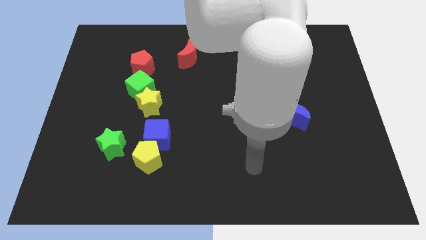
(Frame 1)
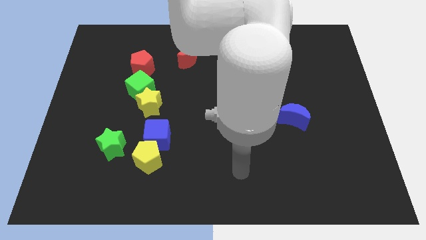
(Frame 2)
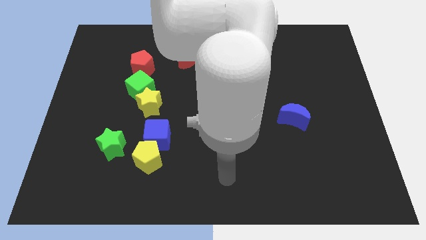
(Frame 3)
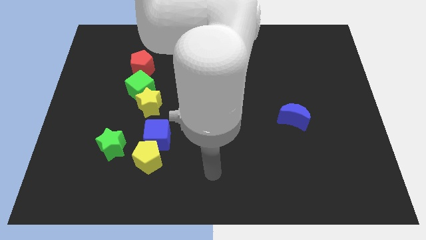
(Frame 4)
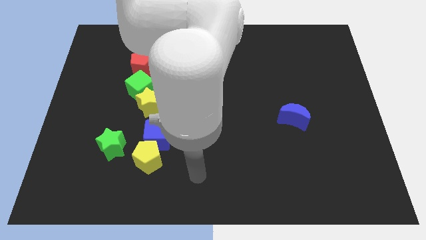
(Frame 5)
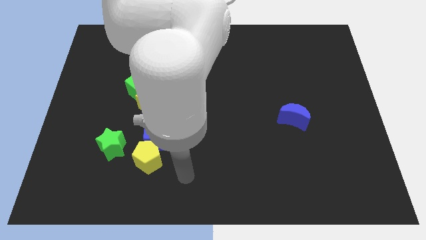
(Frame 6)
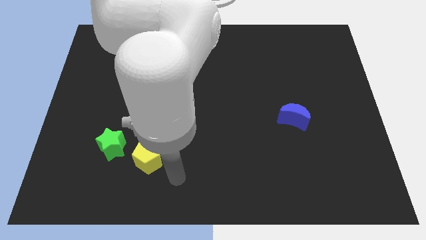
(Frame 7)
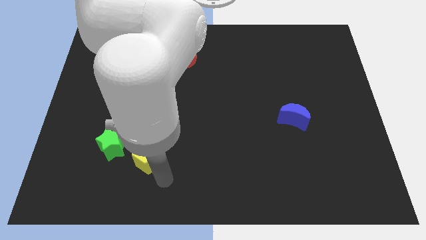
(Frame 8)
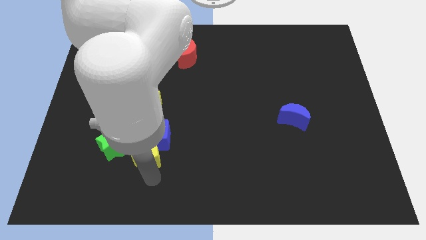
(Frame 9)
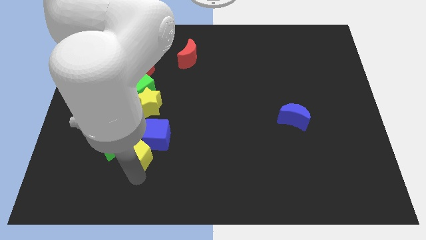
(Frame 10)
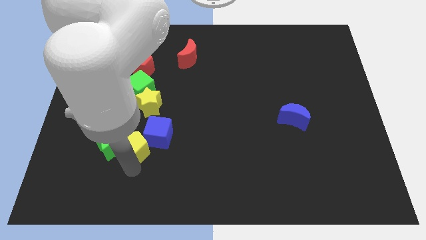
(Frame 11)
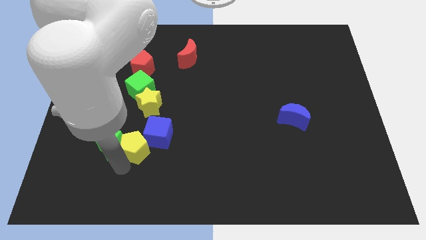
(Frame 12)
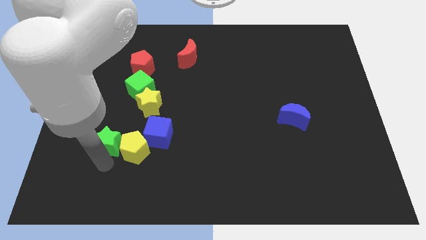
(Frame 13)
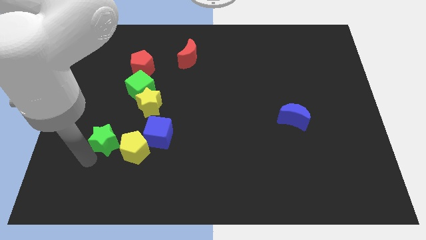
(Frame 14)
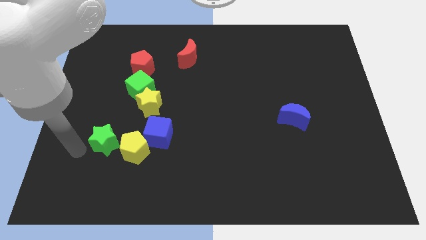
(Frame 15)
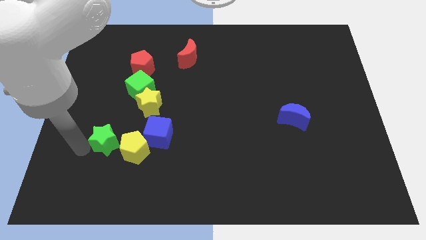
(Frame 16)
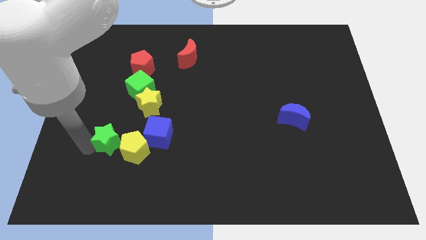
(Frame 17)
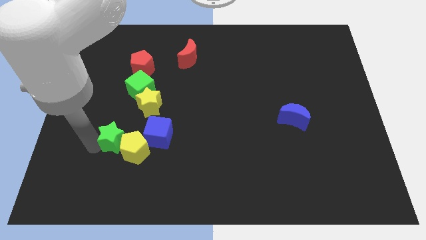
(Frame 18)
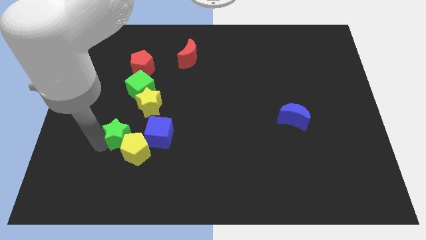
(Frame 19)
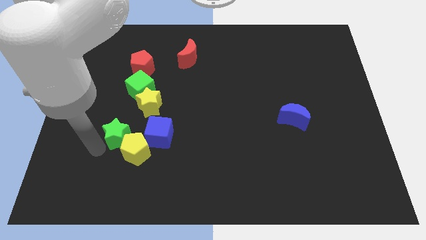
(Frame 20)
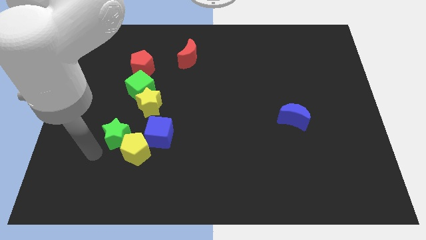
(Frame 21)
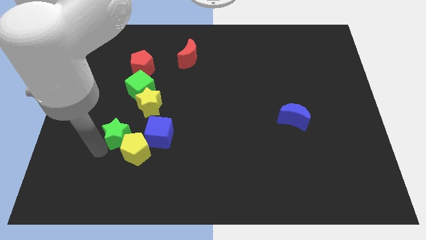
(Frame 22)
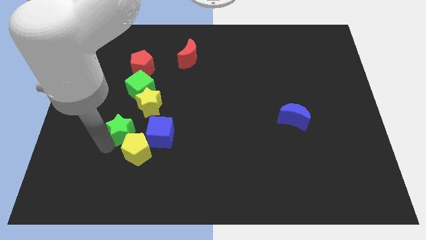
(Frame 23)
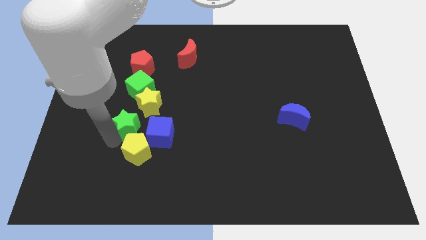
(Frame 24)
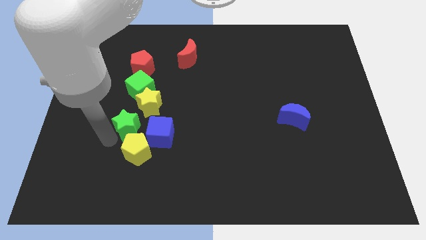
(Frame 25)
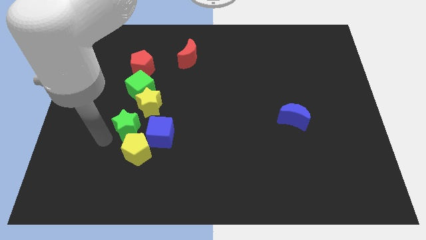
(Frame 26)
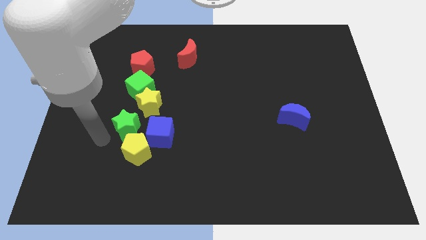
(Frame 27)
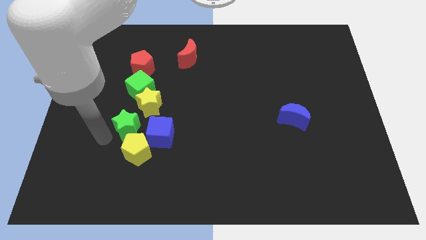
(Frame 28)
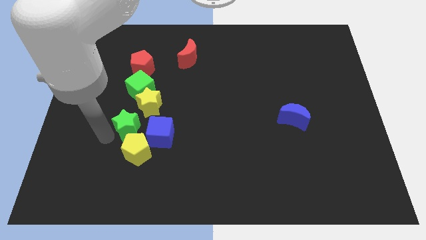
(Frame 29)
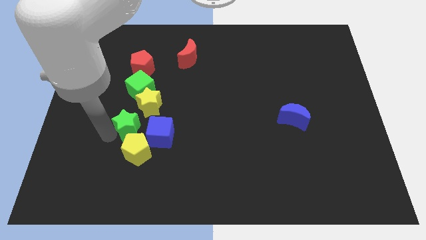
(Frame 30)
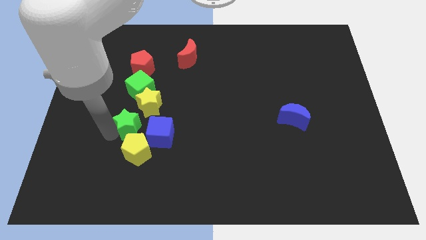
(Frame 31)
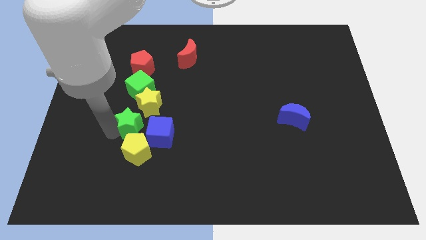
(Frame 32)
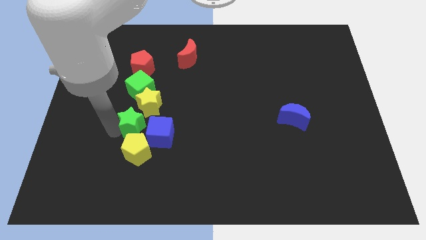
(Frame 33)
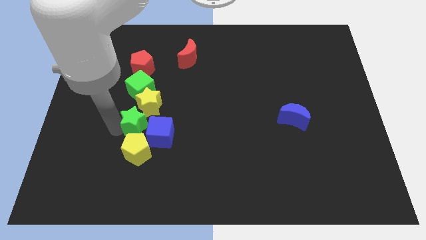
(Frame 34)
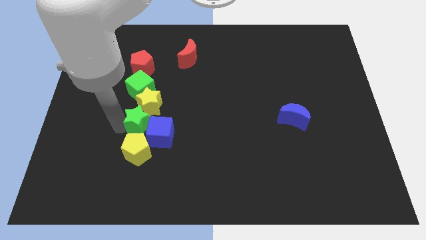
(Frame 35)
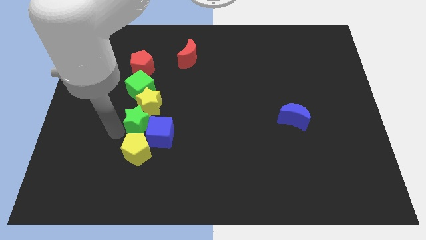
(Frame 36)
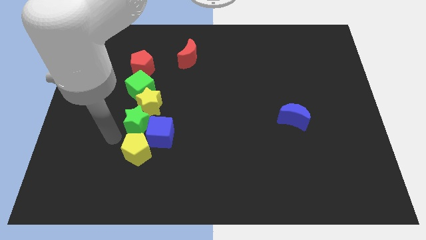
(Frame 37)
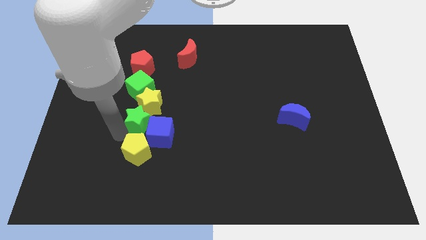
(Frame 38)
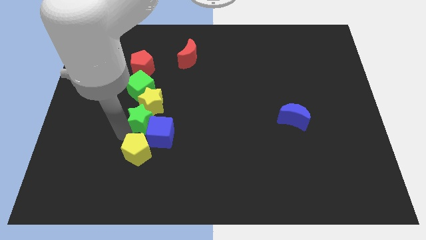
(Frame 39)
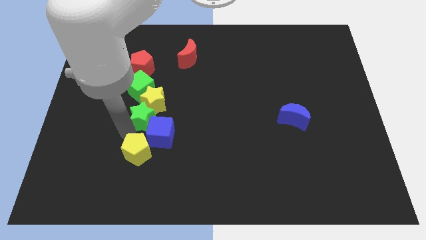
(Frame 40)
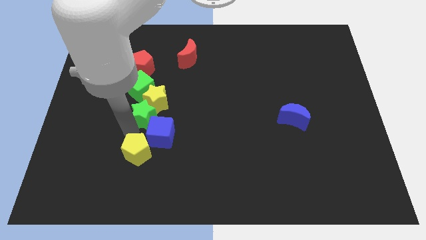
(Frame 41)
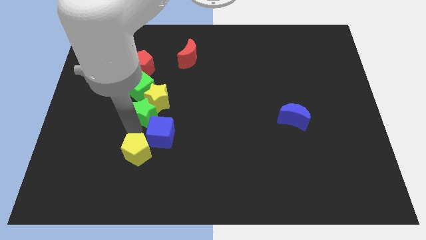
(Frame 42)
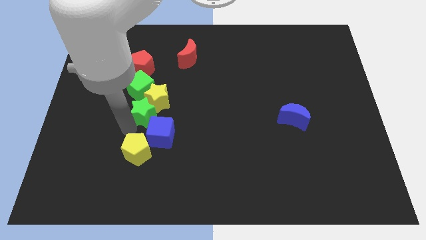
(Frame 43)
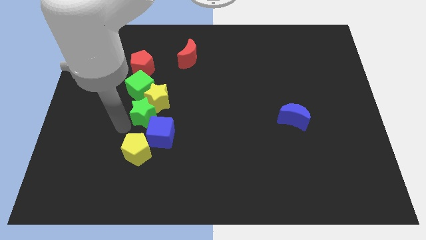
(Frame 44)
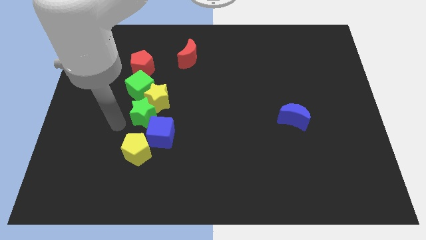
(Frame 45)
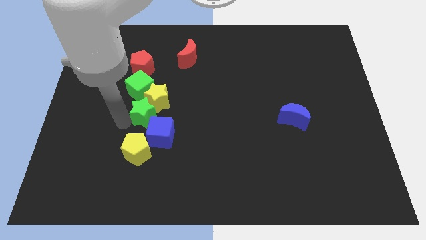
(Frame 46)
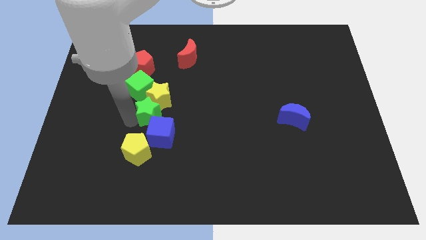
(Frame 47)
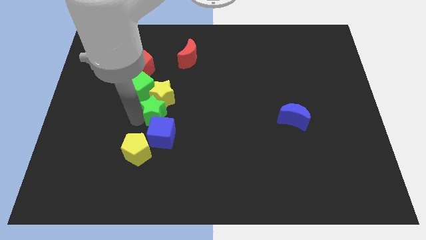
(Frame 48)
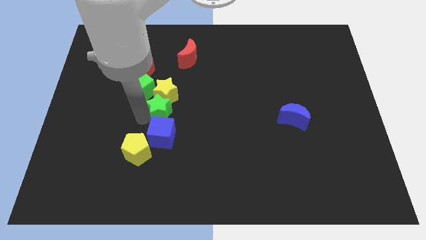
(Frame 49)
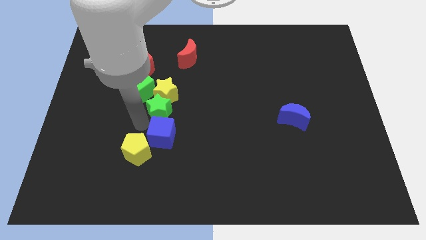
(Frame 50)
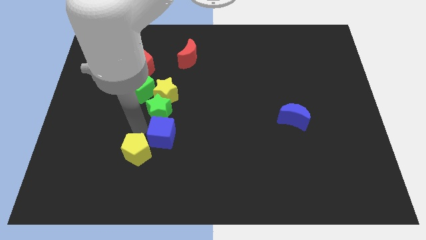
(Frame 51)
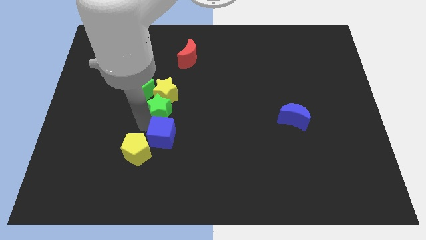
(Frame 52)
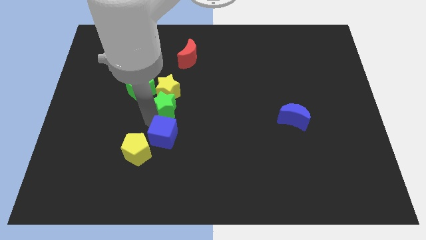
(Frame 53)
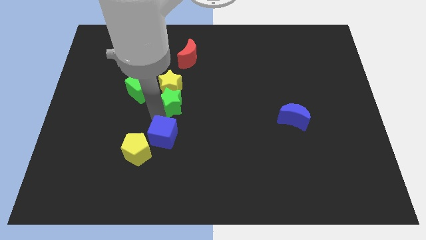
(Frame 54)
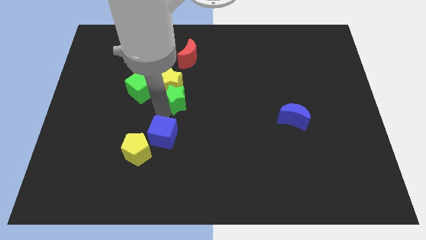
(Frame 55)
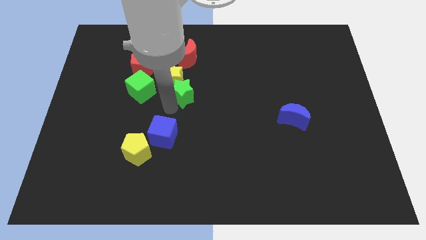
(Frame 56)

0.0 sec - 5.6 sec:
move the green star diagonally up and to the right

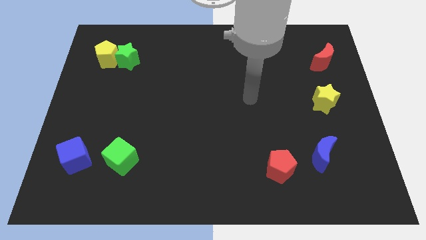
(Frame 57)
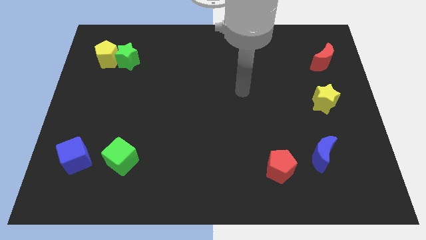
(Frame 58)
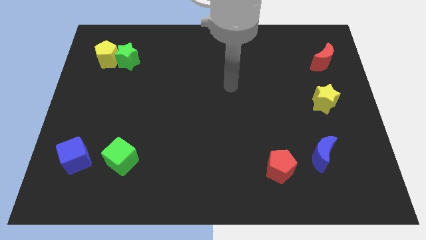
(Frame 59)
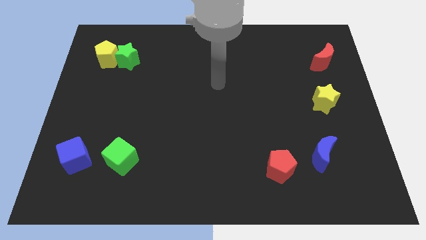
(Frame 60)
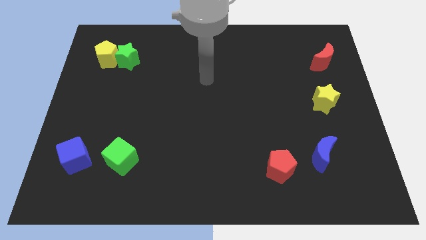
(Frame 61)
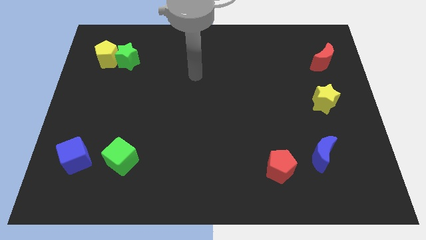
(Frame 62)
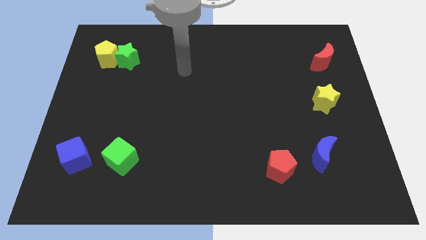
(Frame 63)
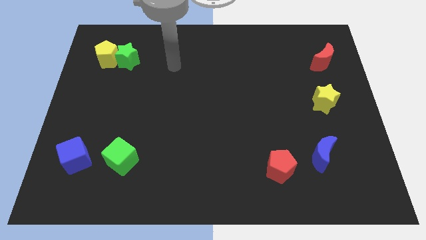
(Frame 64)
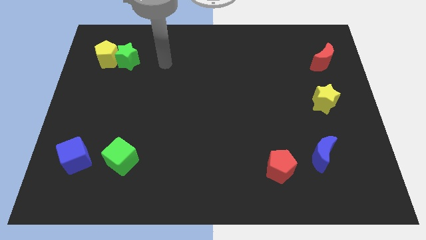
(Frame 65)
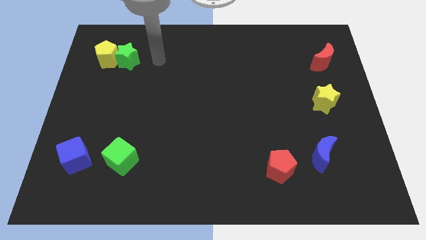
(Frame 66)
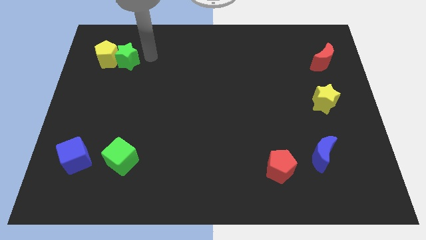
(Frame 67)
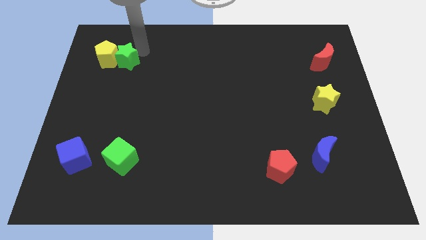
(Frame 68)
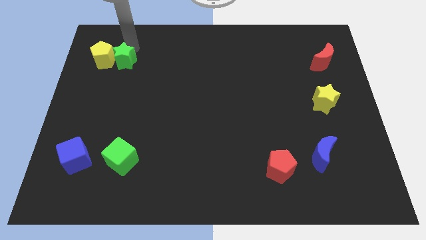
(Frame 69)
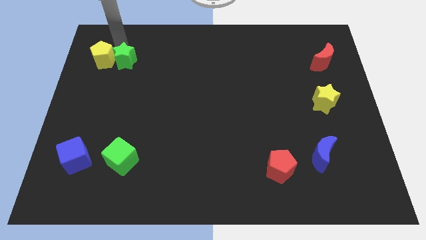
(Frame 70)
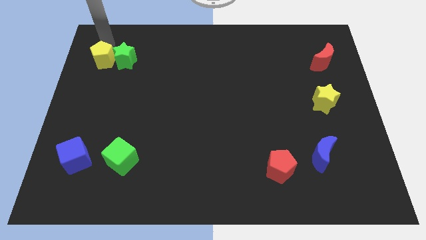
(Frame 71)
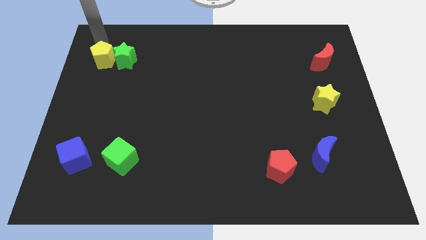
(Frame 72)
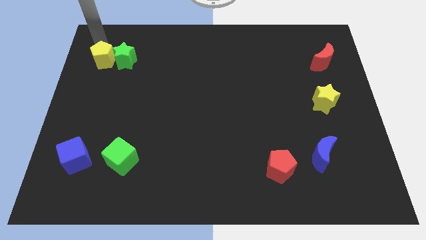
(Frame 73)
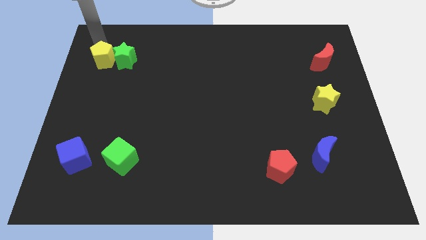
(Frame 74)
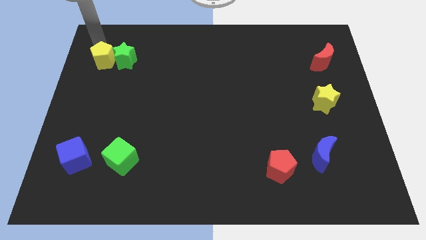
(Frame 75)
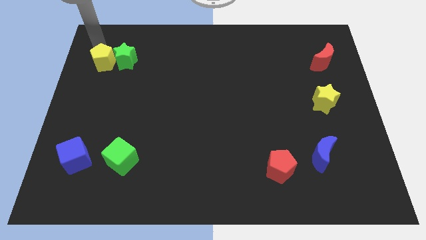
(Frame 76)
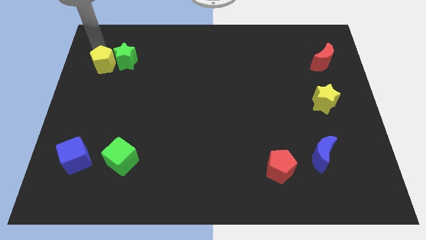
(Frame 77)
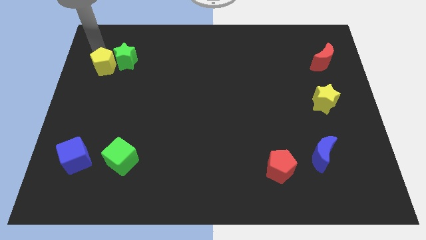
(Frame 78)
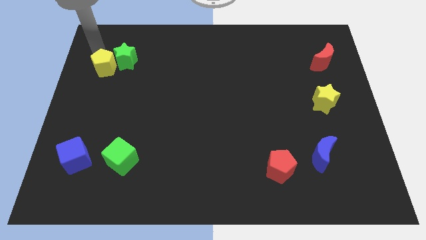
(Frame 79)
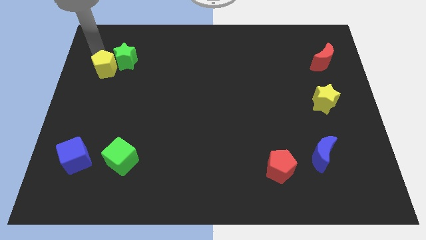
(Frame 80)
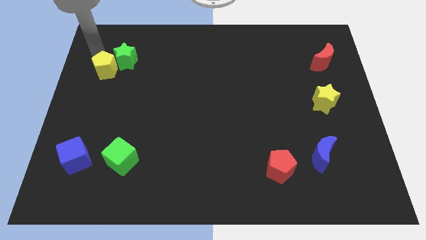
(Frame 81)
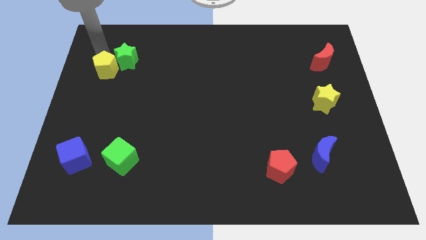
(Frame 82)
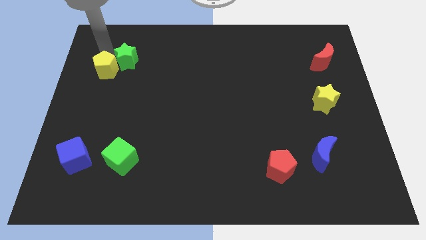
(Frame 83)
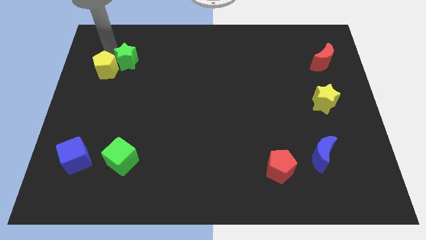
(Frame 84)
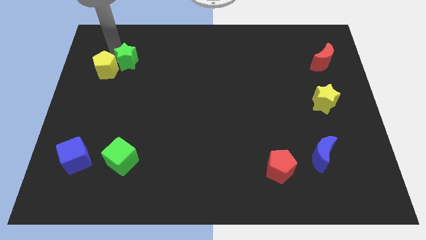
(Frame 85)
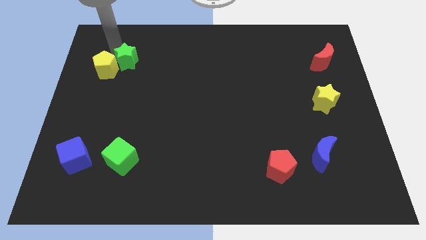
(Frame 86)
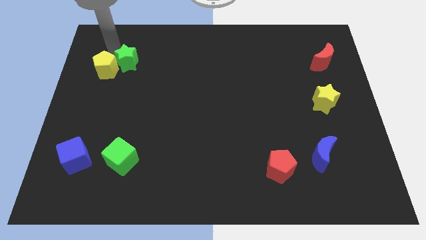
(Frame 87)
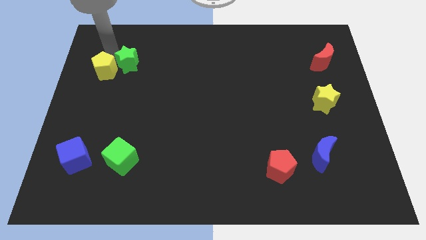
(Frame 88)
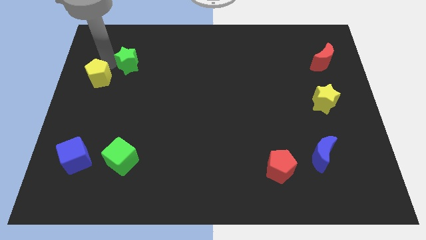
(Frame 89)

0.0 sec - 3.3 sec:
move the yellow pentagon slightly down
